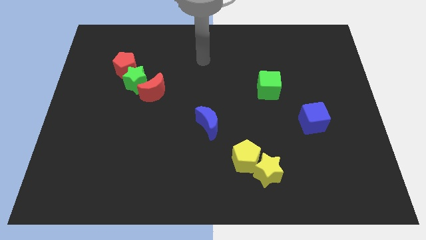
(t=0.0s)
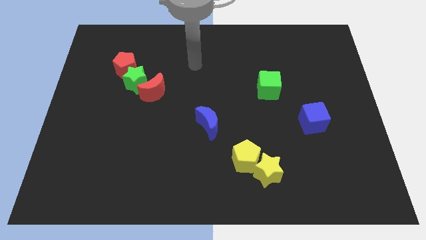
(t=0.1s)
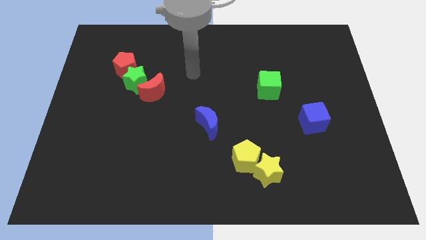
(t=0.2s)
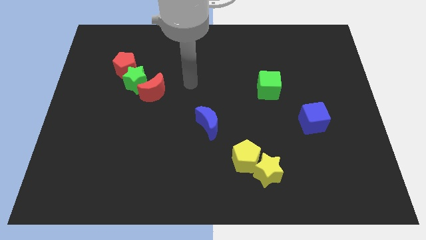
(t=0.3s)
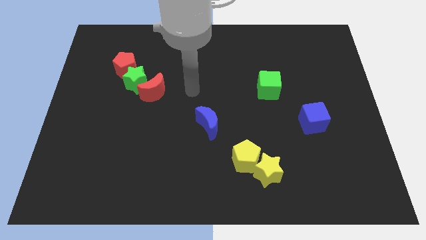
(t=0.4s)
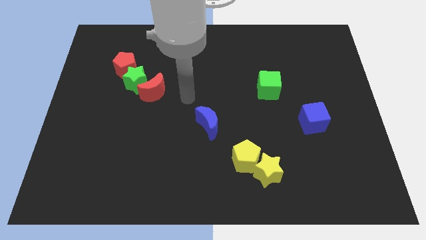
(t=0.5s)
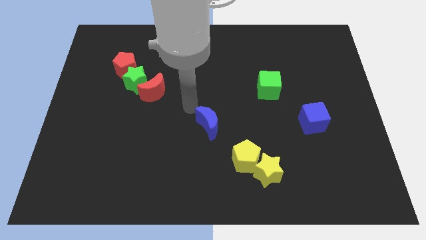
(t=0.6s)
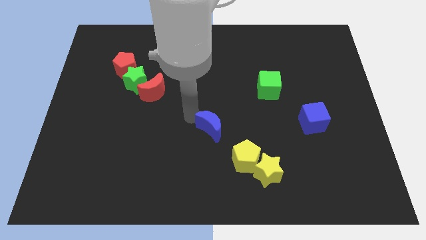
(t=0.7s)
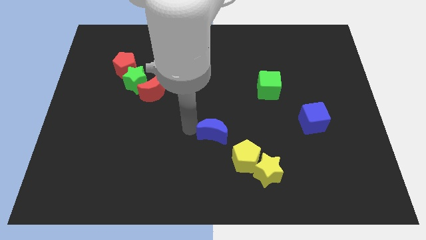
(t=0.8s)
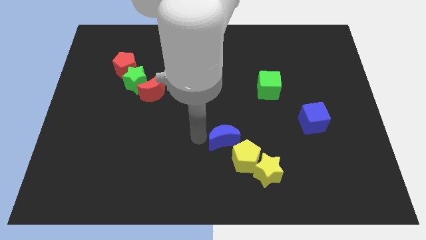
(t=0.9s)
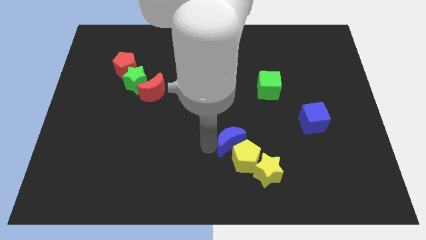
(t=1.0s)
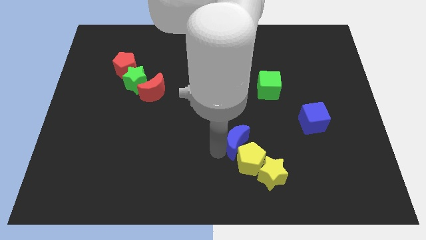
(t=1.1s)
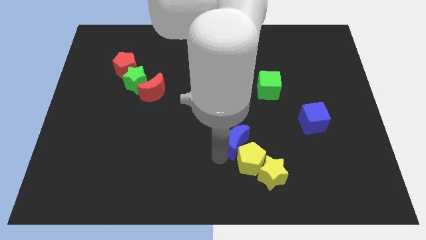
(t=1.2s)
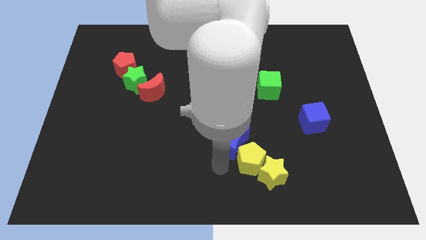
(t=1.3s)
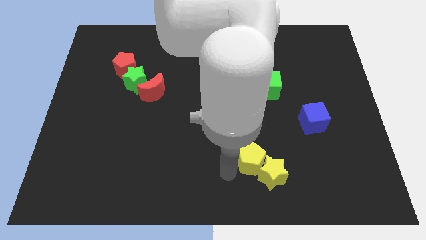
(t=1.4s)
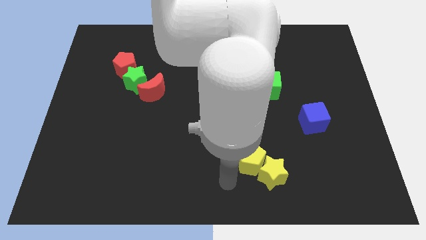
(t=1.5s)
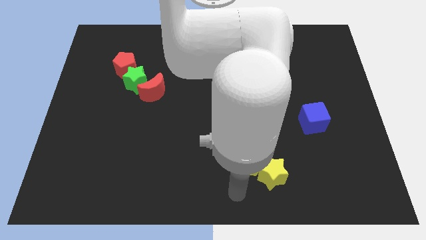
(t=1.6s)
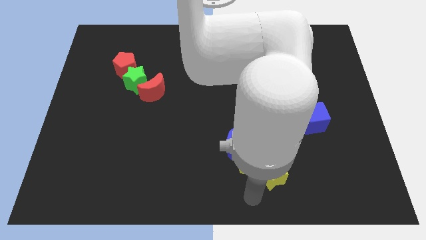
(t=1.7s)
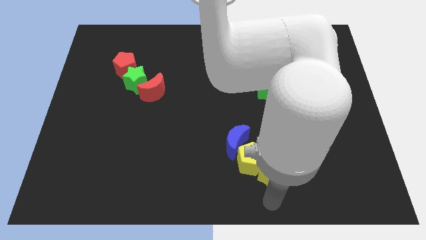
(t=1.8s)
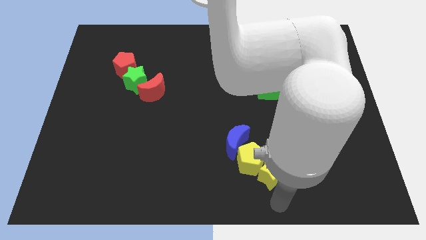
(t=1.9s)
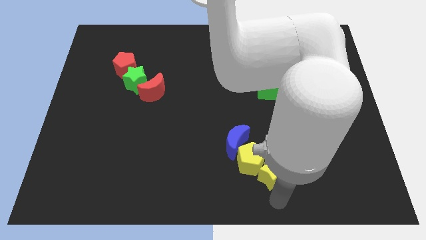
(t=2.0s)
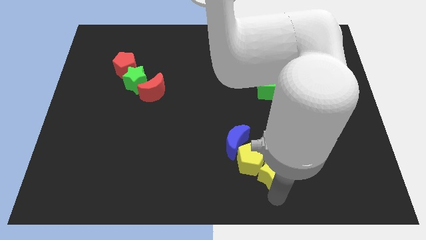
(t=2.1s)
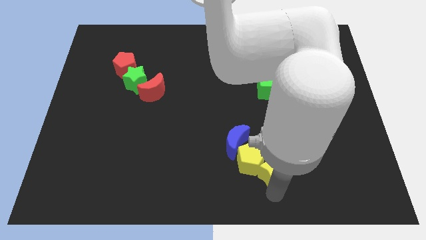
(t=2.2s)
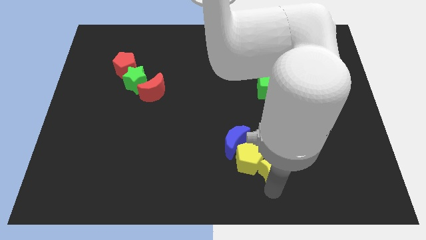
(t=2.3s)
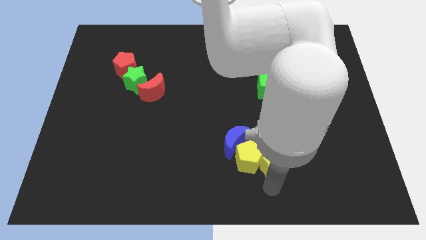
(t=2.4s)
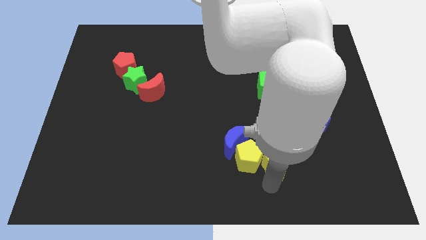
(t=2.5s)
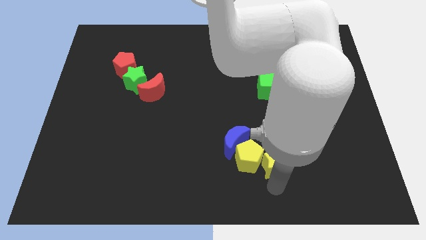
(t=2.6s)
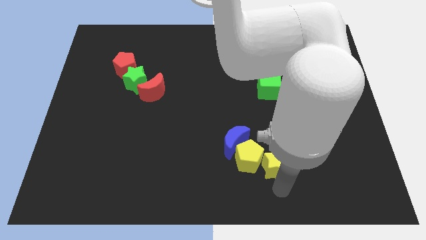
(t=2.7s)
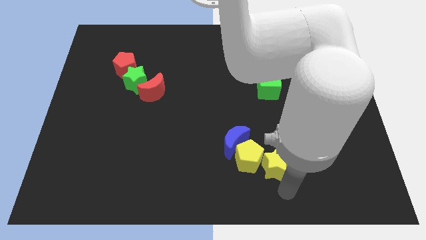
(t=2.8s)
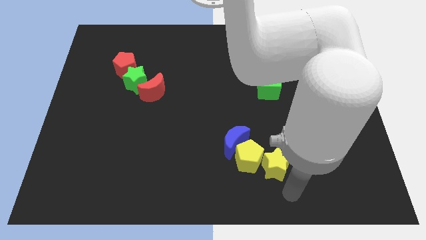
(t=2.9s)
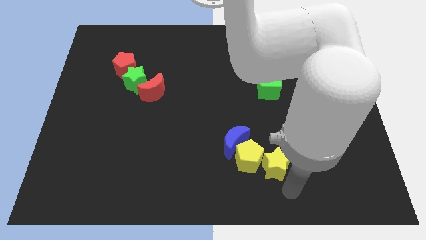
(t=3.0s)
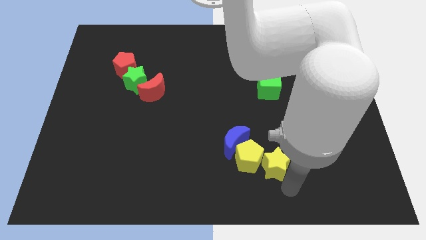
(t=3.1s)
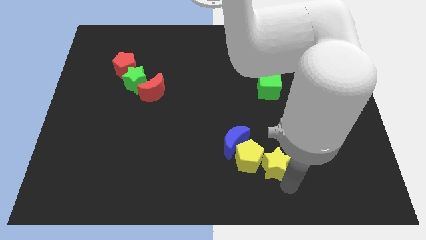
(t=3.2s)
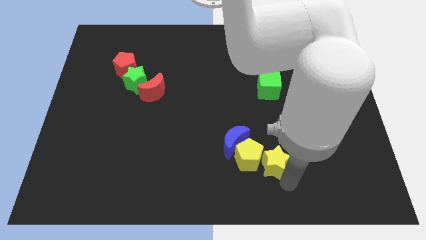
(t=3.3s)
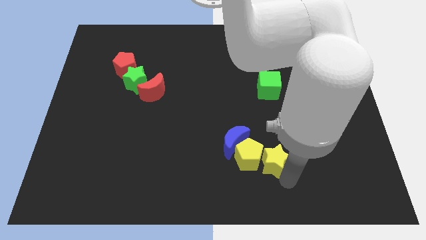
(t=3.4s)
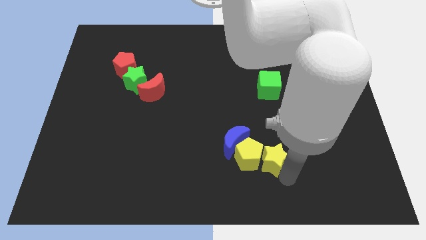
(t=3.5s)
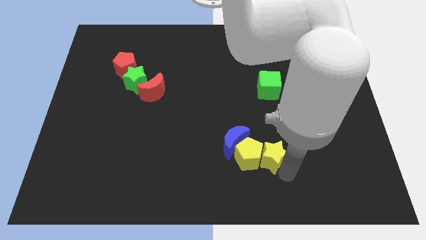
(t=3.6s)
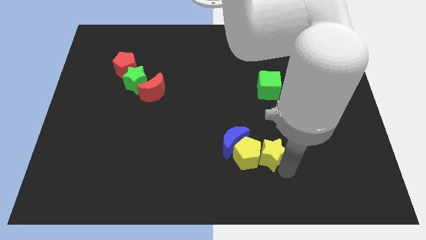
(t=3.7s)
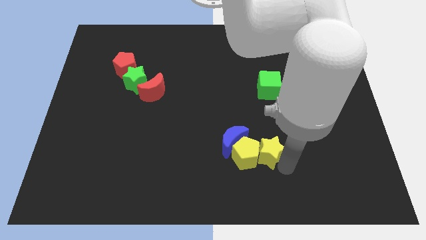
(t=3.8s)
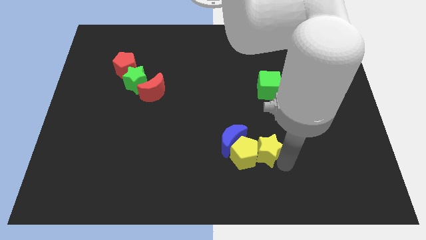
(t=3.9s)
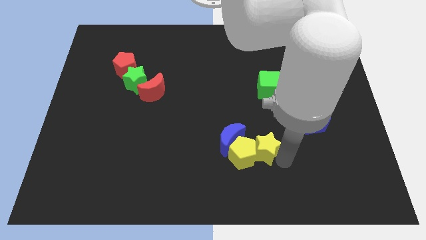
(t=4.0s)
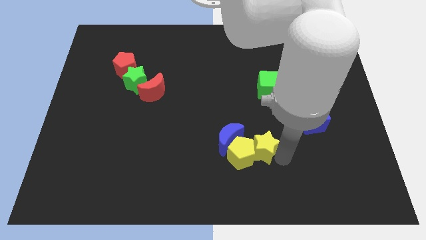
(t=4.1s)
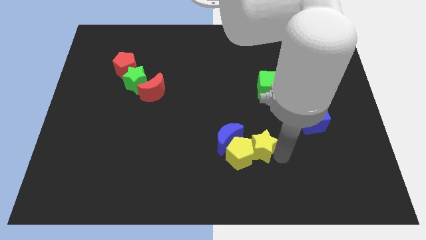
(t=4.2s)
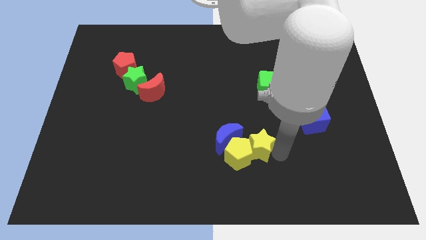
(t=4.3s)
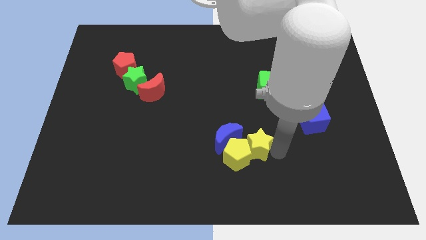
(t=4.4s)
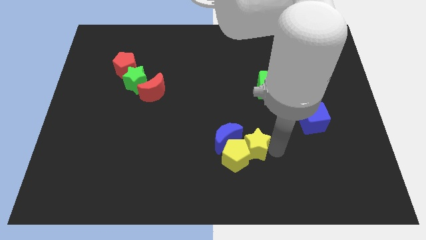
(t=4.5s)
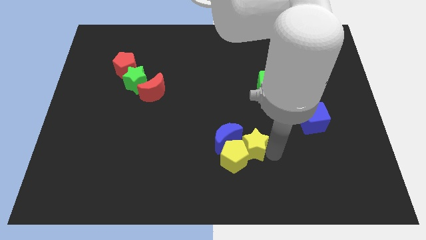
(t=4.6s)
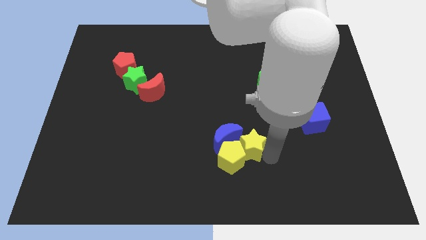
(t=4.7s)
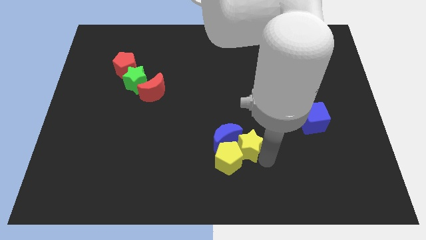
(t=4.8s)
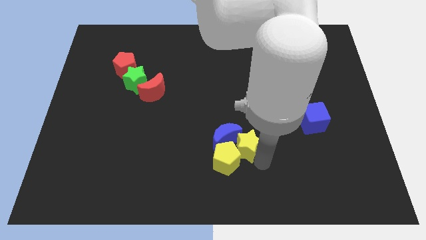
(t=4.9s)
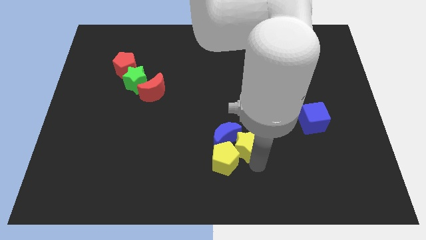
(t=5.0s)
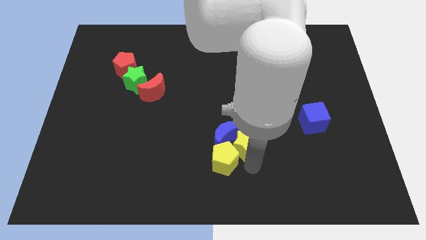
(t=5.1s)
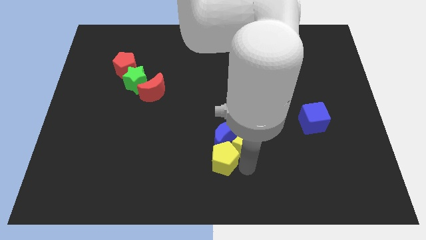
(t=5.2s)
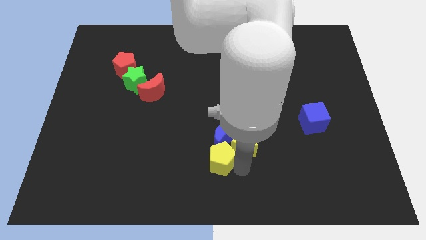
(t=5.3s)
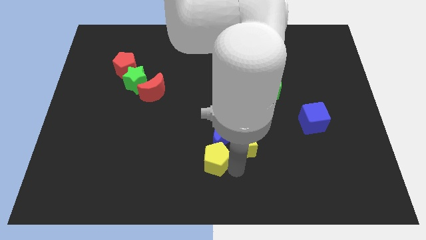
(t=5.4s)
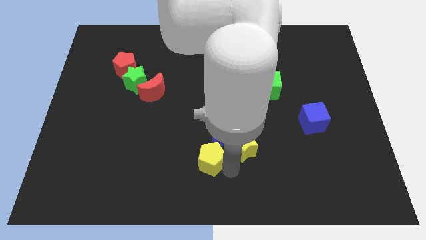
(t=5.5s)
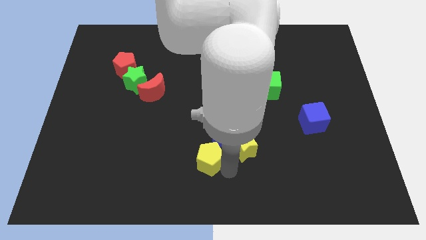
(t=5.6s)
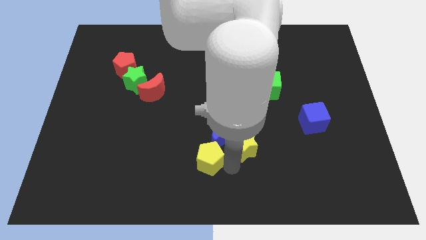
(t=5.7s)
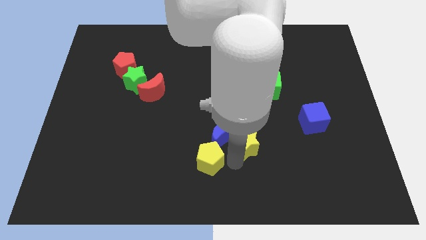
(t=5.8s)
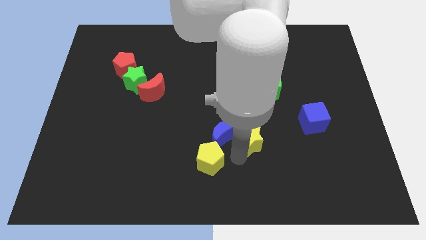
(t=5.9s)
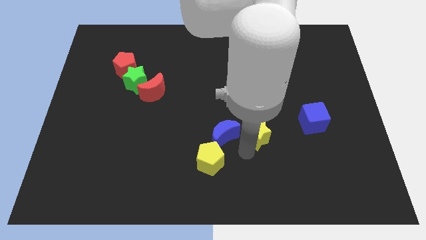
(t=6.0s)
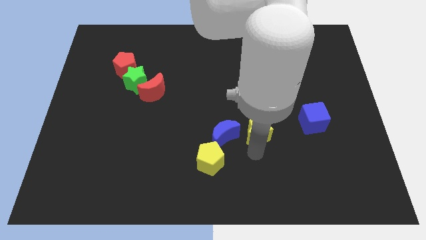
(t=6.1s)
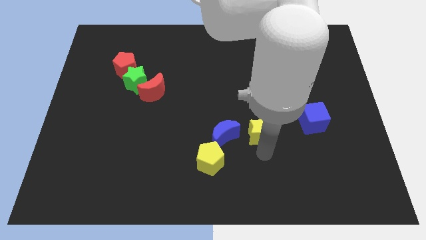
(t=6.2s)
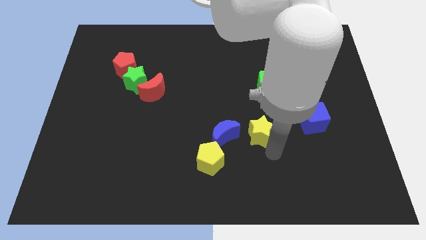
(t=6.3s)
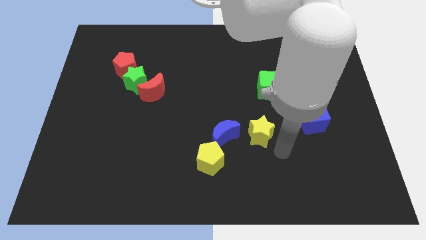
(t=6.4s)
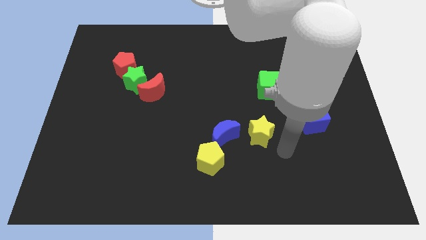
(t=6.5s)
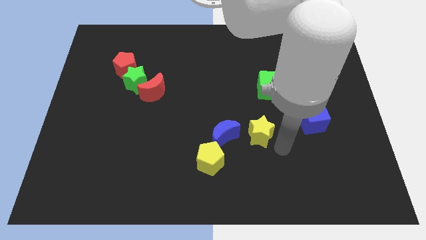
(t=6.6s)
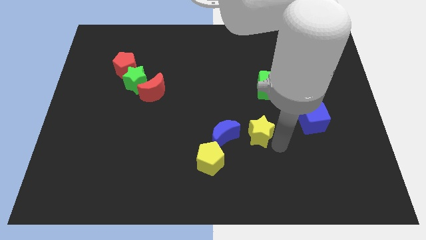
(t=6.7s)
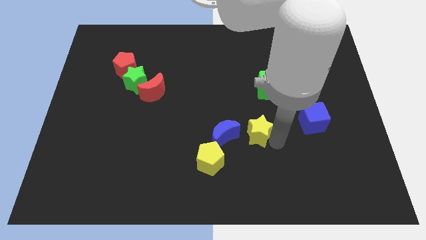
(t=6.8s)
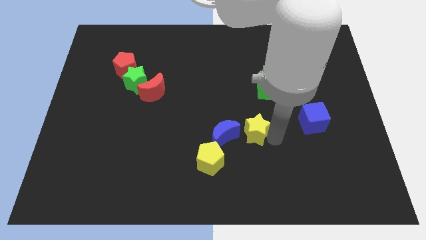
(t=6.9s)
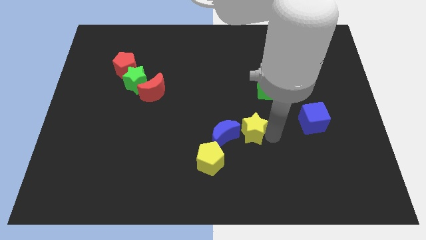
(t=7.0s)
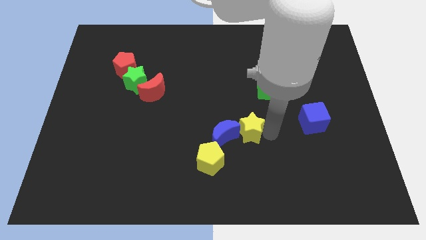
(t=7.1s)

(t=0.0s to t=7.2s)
push the yellow star to the middle of the board
